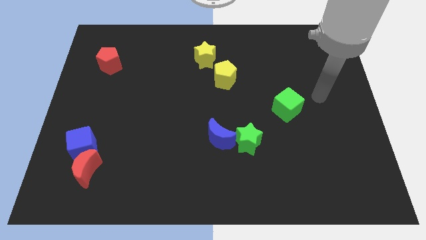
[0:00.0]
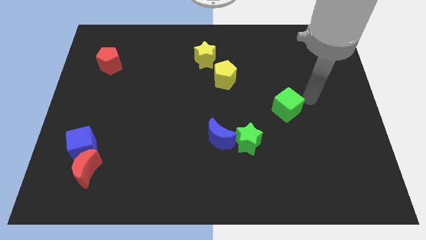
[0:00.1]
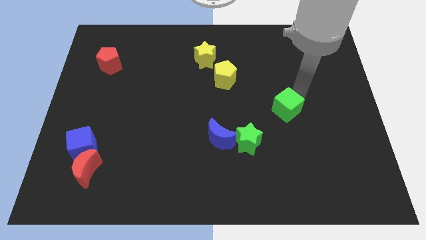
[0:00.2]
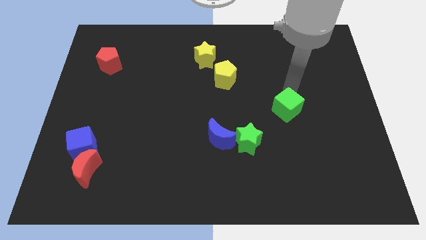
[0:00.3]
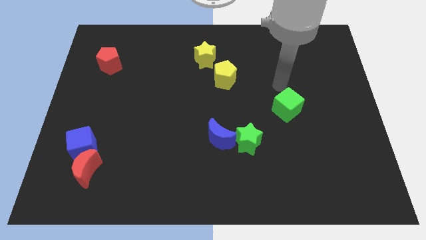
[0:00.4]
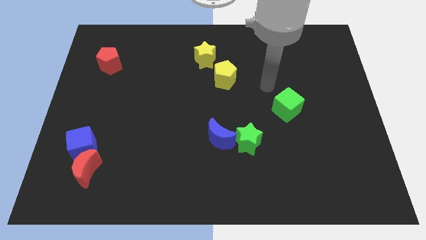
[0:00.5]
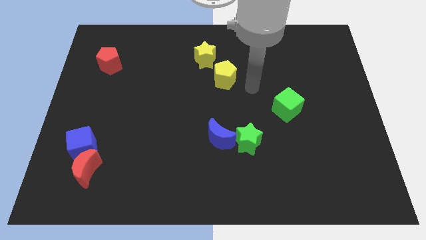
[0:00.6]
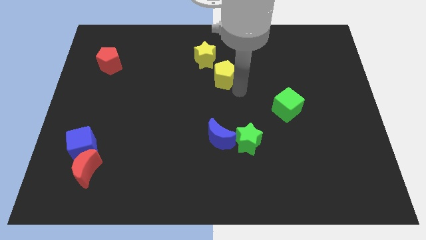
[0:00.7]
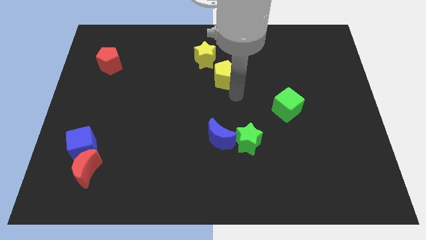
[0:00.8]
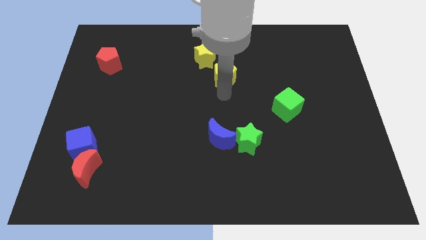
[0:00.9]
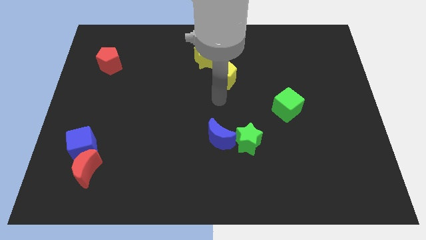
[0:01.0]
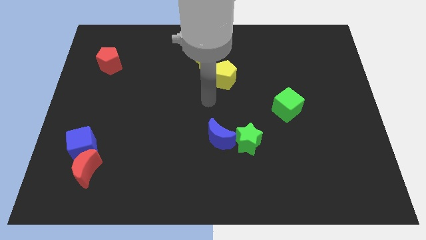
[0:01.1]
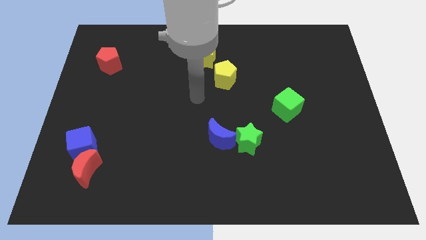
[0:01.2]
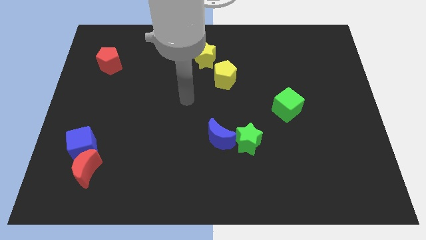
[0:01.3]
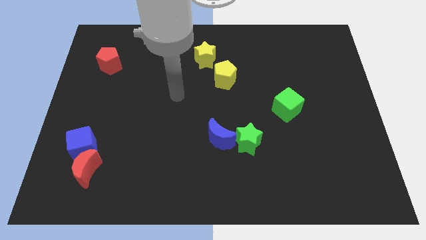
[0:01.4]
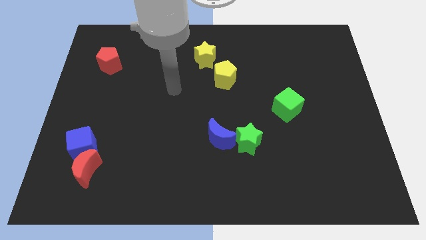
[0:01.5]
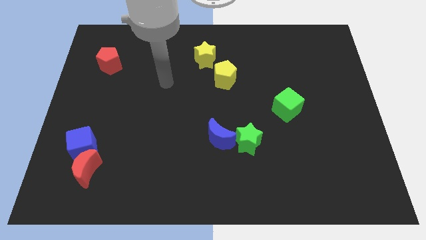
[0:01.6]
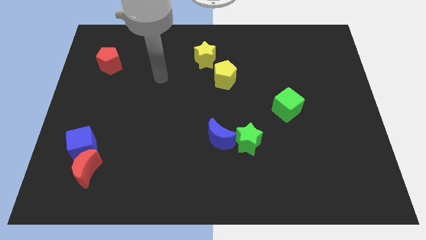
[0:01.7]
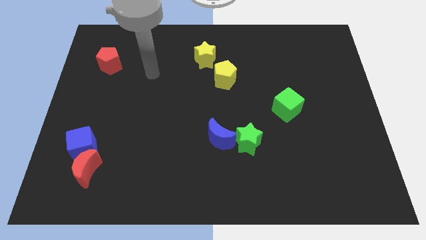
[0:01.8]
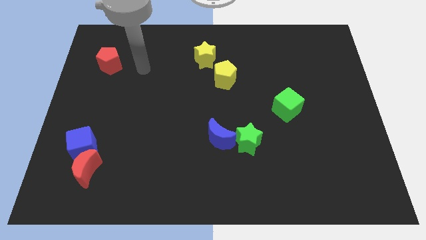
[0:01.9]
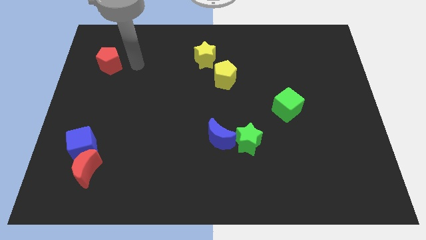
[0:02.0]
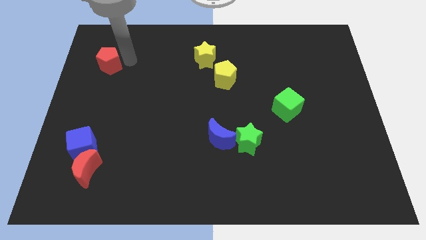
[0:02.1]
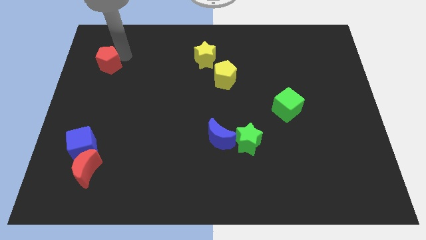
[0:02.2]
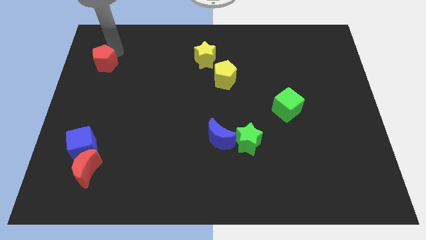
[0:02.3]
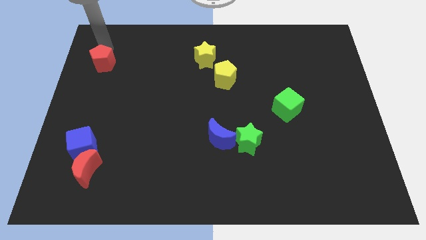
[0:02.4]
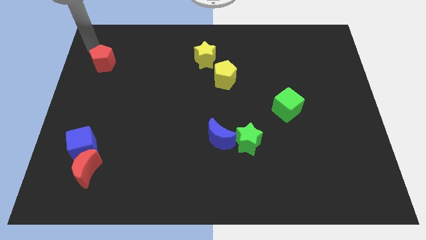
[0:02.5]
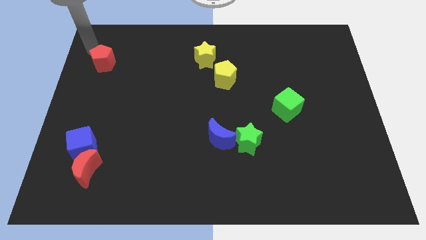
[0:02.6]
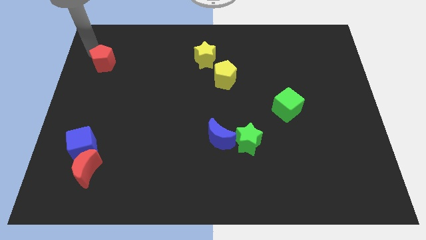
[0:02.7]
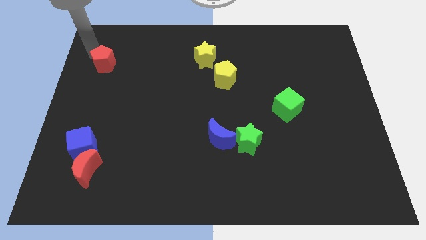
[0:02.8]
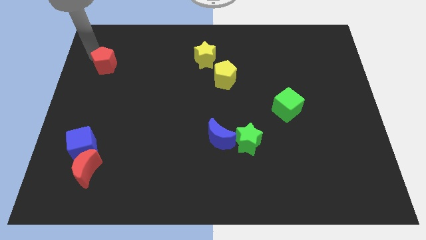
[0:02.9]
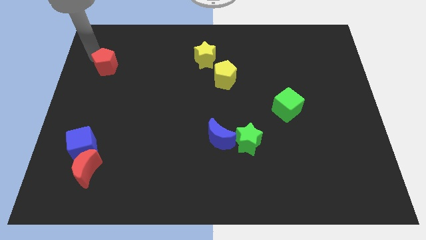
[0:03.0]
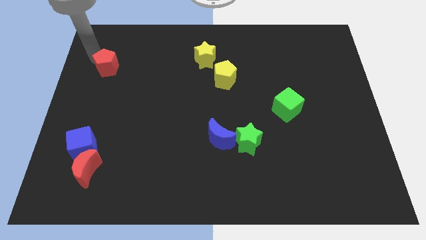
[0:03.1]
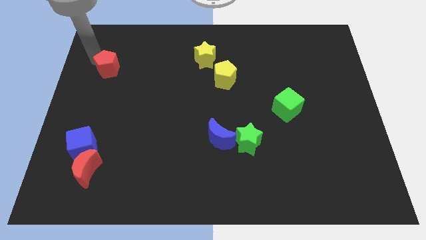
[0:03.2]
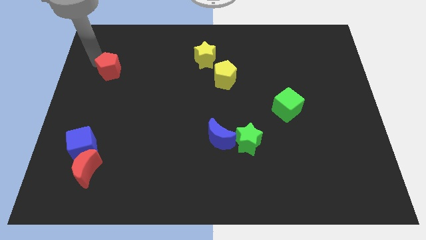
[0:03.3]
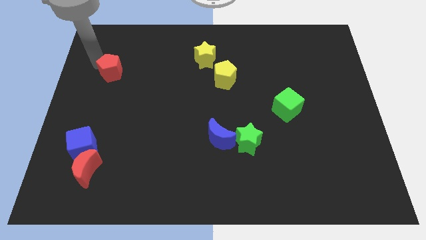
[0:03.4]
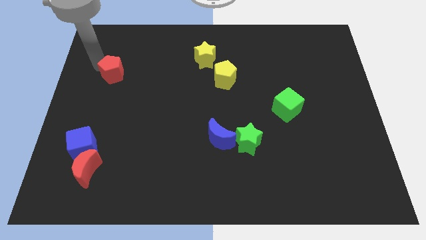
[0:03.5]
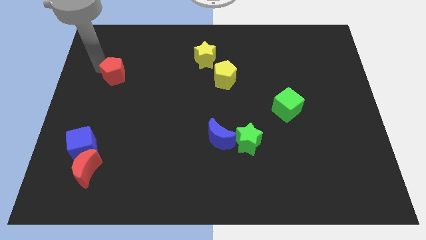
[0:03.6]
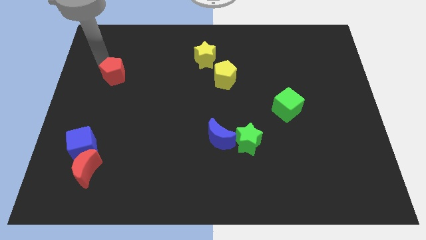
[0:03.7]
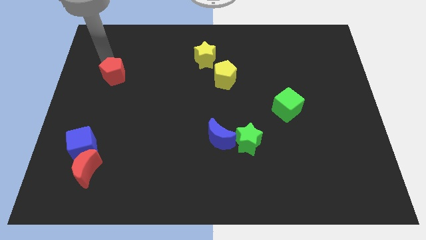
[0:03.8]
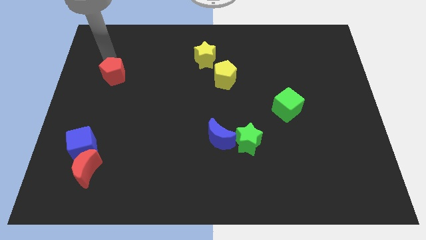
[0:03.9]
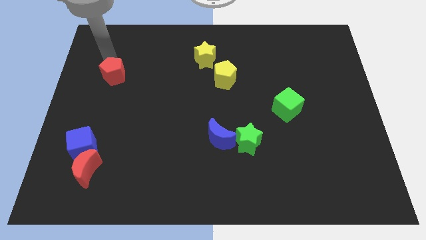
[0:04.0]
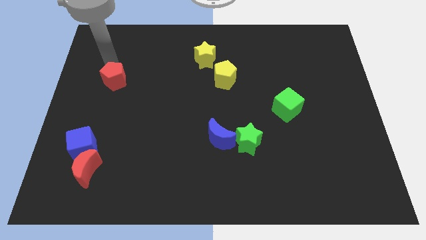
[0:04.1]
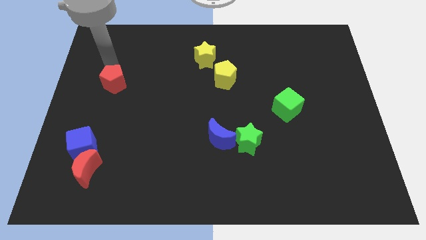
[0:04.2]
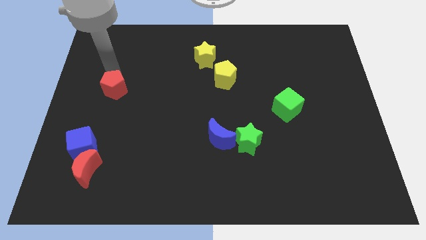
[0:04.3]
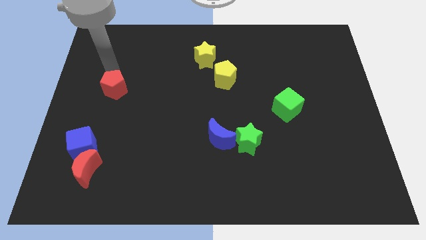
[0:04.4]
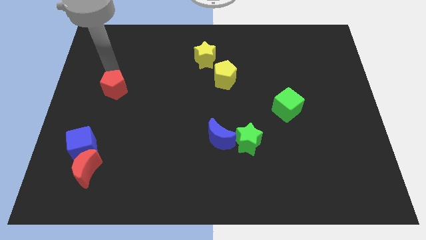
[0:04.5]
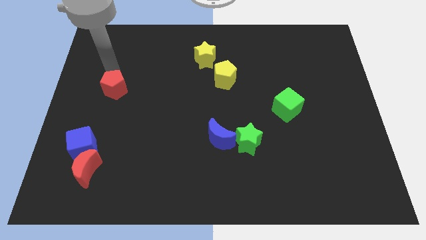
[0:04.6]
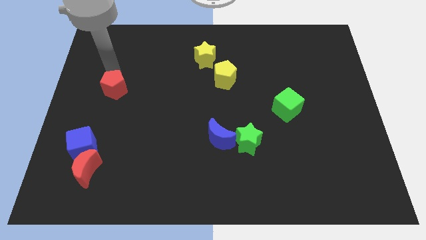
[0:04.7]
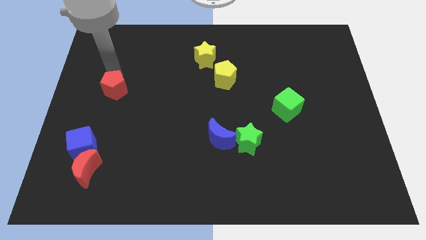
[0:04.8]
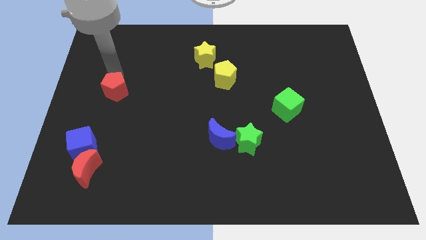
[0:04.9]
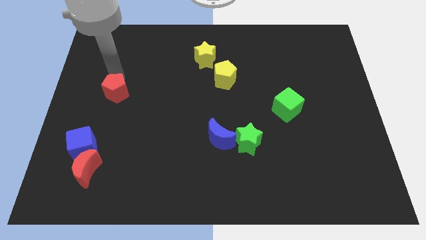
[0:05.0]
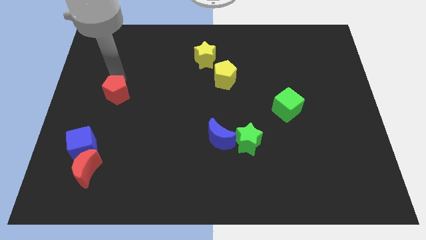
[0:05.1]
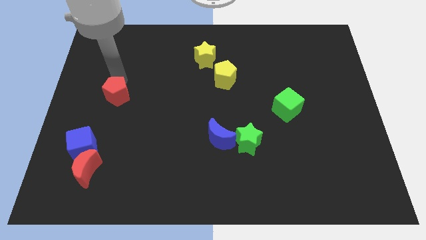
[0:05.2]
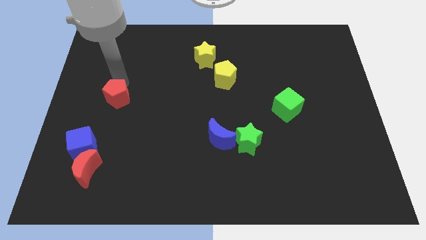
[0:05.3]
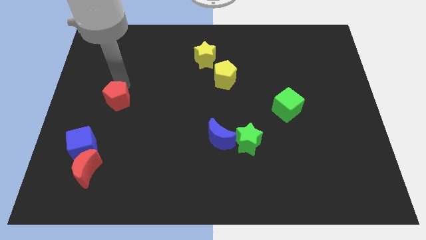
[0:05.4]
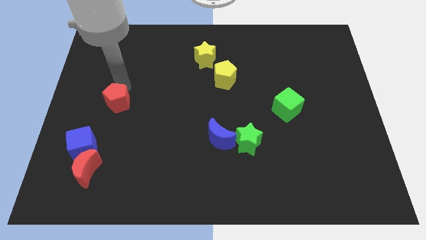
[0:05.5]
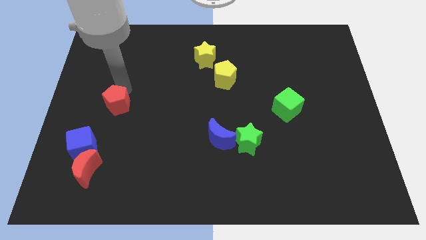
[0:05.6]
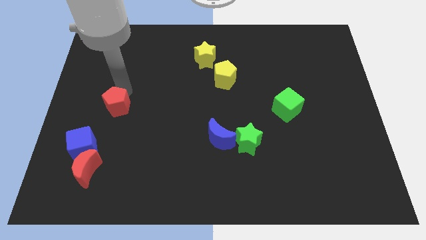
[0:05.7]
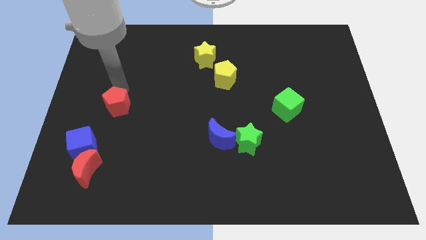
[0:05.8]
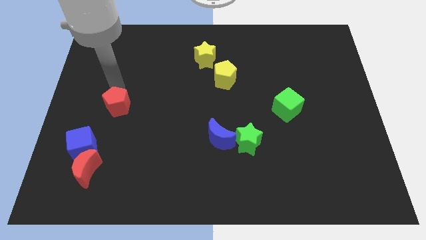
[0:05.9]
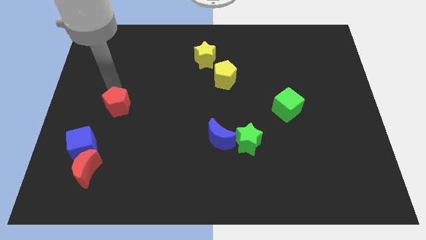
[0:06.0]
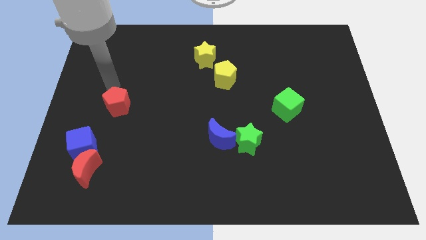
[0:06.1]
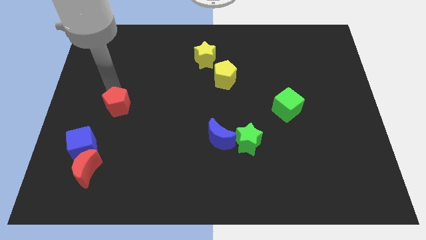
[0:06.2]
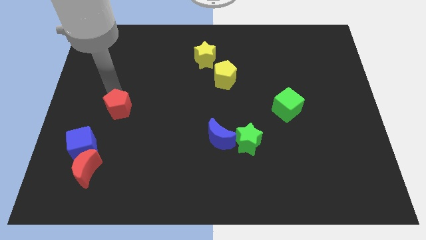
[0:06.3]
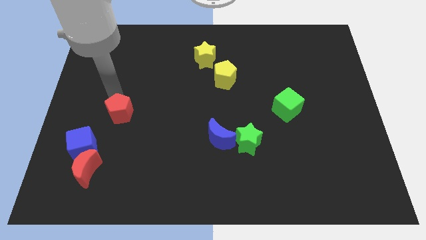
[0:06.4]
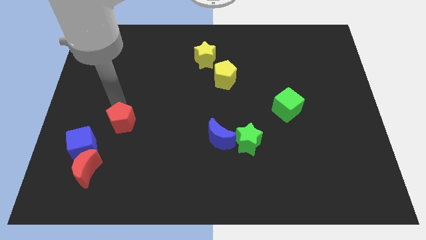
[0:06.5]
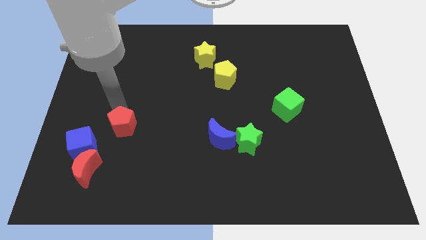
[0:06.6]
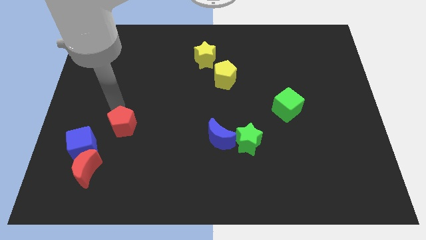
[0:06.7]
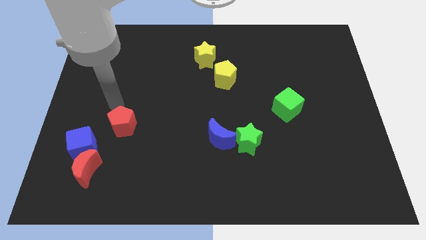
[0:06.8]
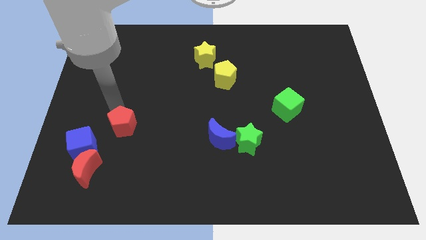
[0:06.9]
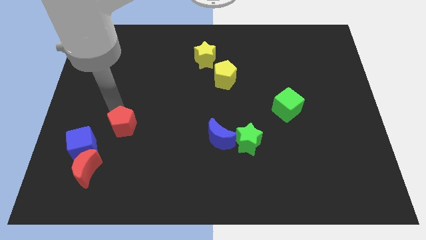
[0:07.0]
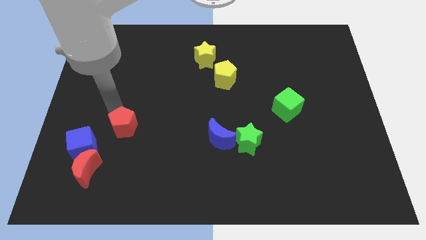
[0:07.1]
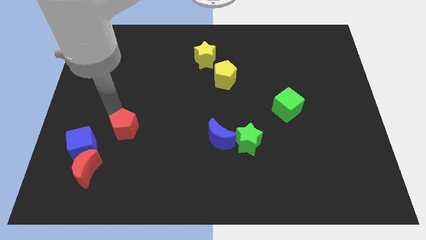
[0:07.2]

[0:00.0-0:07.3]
move the red pentagon just right of the blue cube

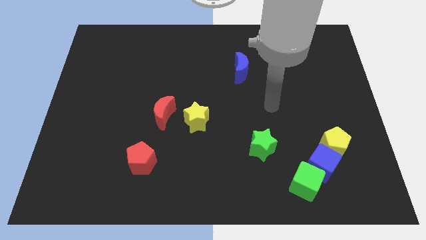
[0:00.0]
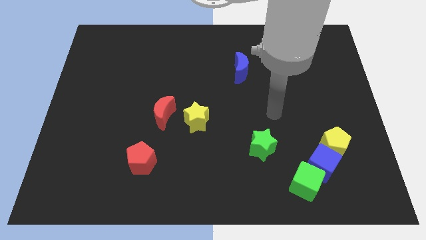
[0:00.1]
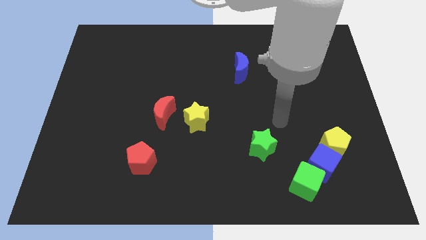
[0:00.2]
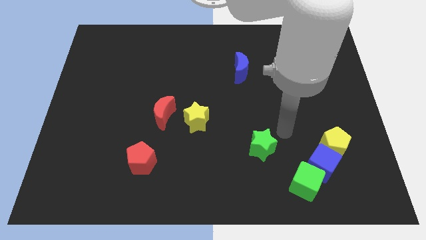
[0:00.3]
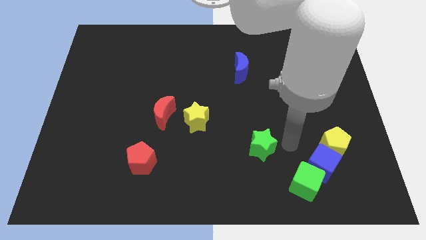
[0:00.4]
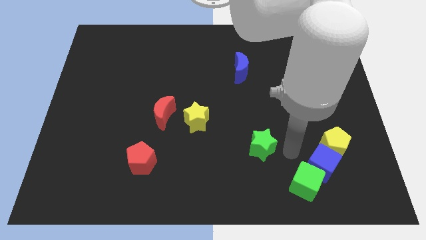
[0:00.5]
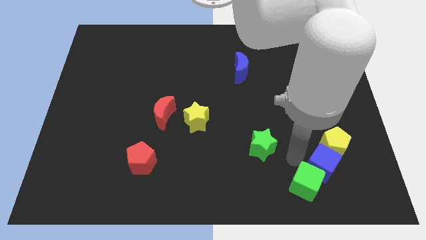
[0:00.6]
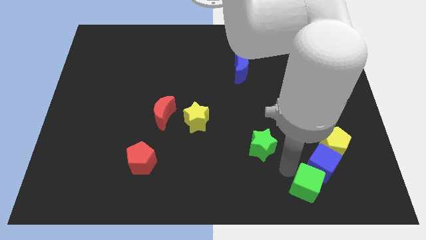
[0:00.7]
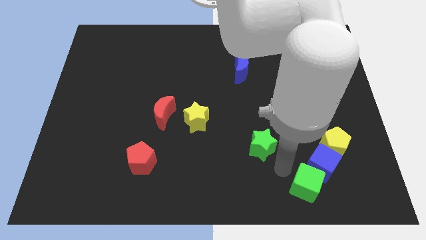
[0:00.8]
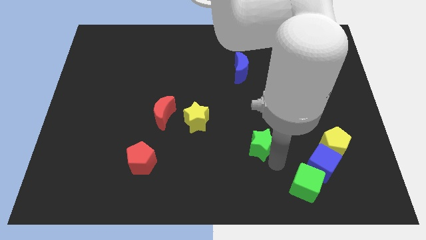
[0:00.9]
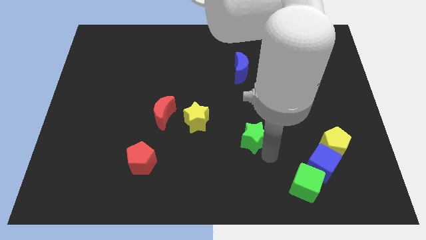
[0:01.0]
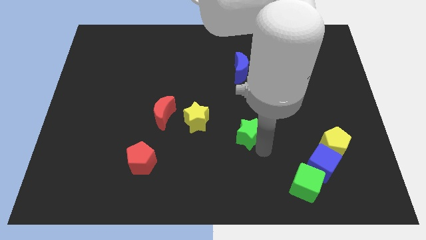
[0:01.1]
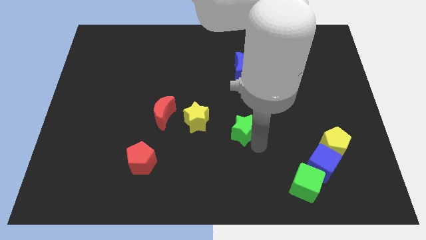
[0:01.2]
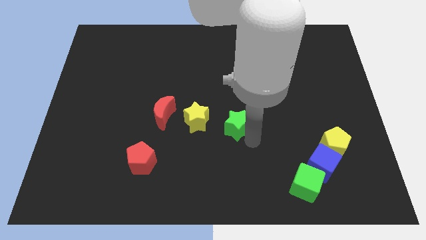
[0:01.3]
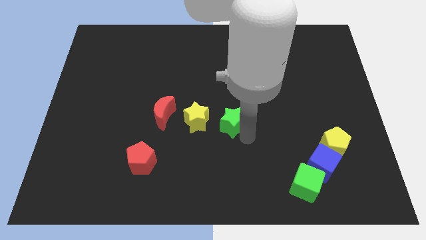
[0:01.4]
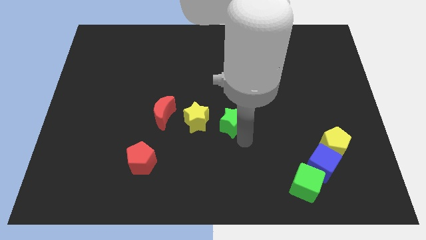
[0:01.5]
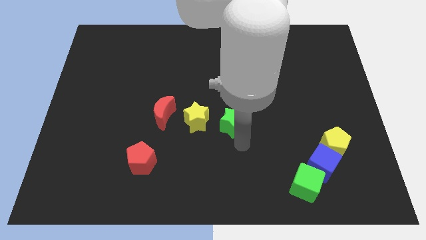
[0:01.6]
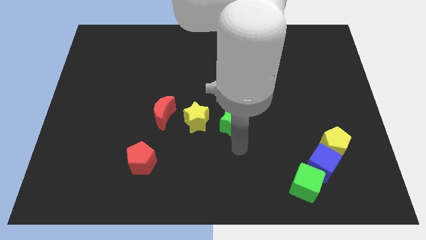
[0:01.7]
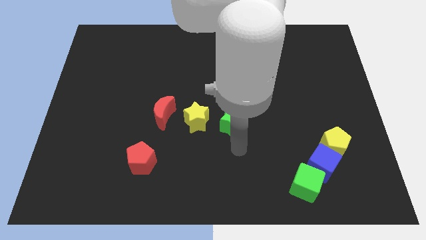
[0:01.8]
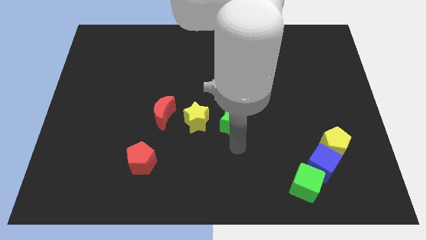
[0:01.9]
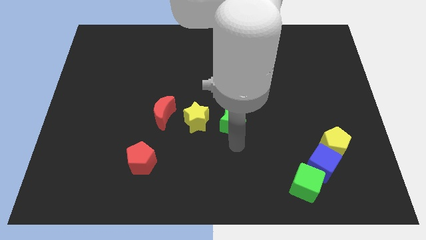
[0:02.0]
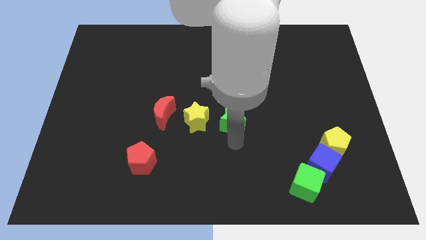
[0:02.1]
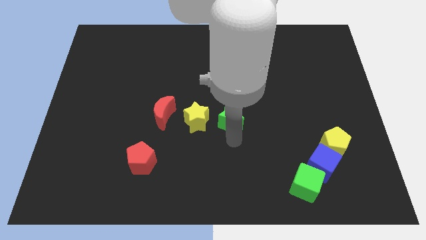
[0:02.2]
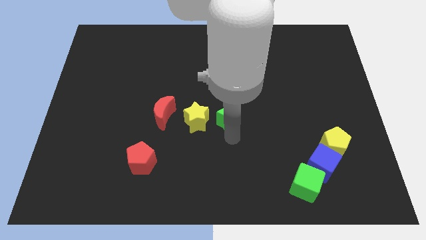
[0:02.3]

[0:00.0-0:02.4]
put the green star diagonally up and to the right of the yellow star
